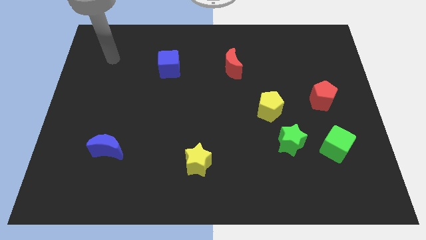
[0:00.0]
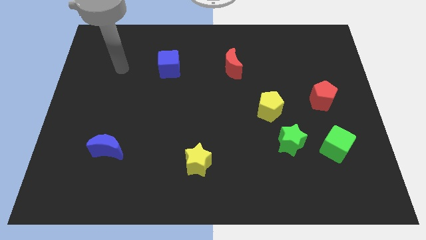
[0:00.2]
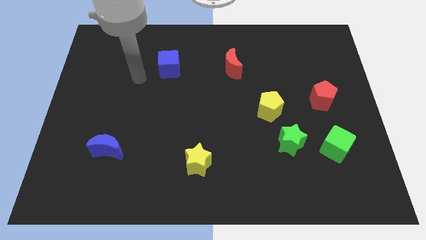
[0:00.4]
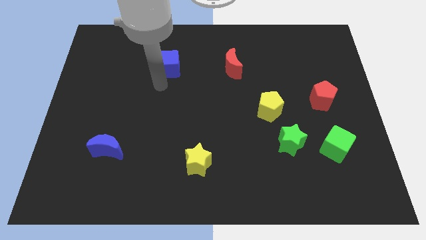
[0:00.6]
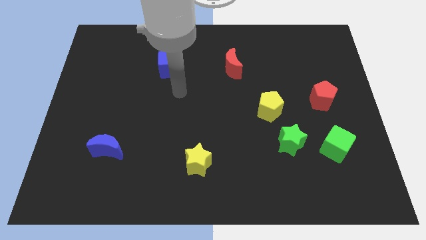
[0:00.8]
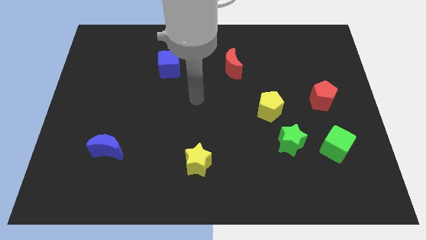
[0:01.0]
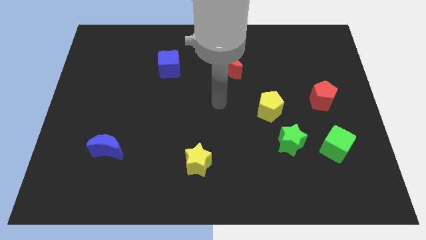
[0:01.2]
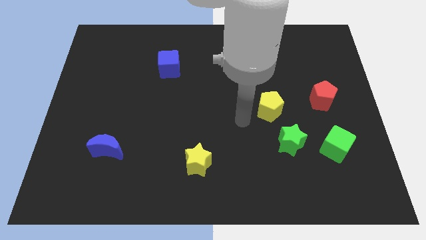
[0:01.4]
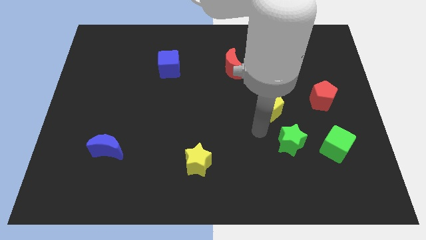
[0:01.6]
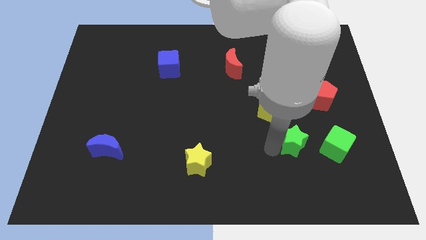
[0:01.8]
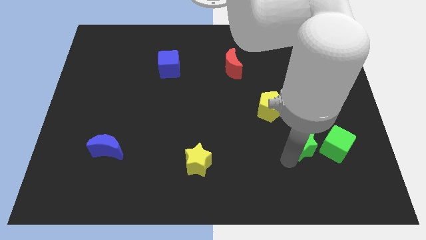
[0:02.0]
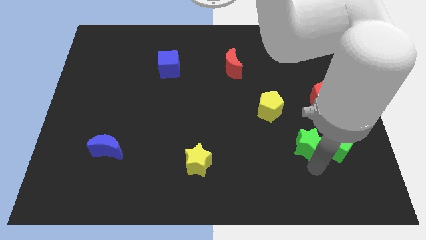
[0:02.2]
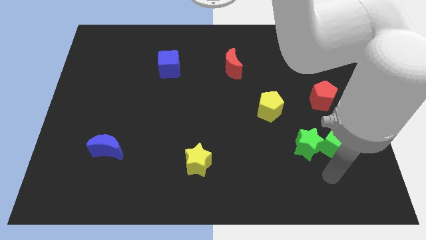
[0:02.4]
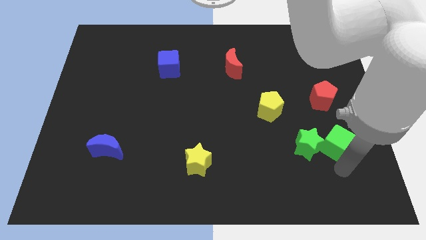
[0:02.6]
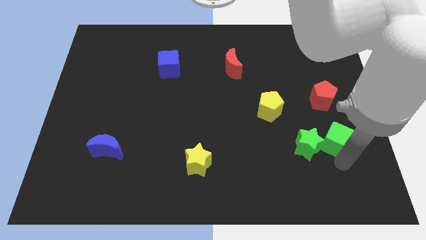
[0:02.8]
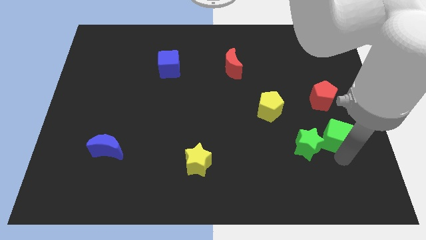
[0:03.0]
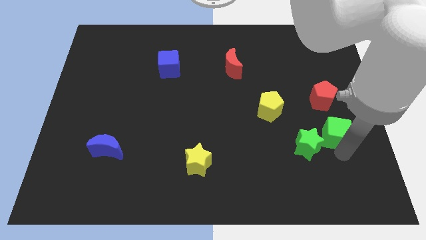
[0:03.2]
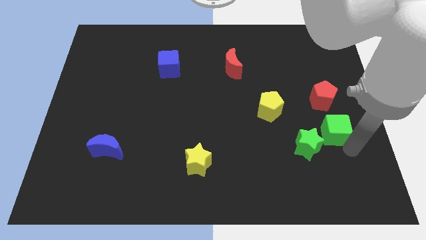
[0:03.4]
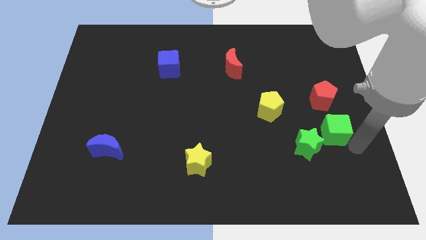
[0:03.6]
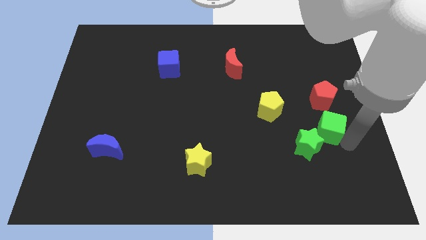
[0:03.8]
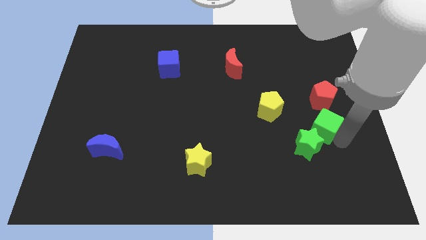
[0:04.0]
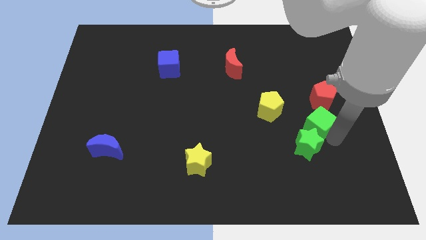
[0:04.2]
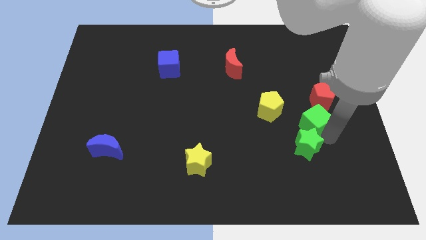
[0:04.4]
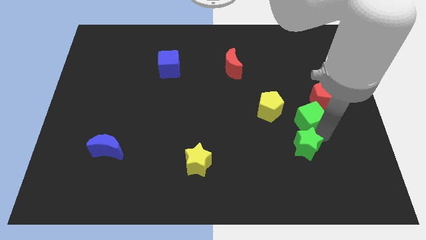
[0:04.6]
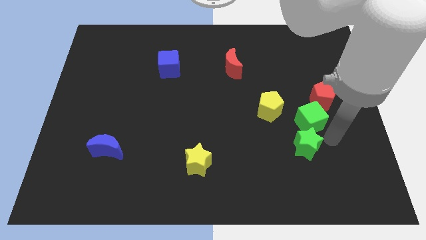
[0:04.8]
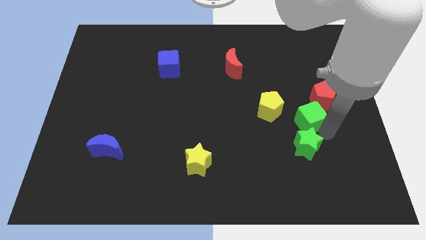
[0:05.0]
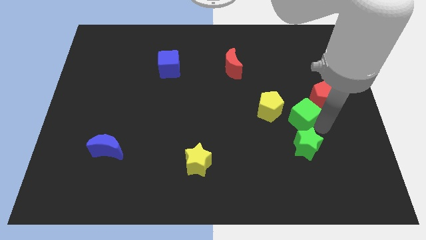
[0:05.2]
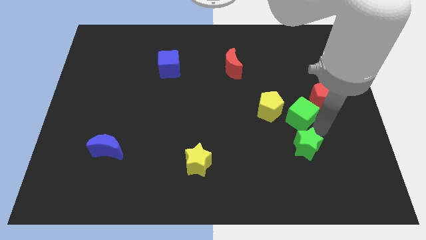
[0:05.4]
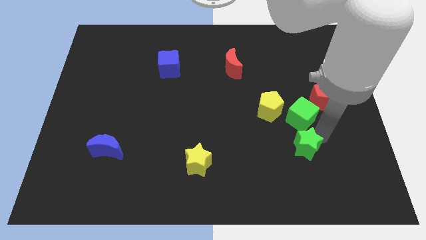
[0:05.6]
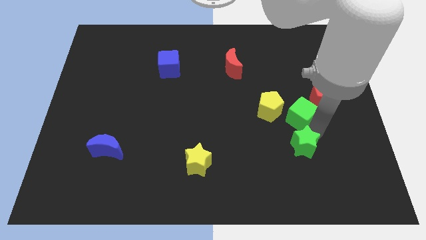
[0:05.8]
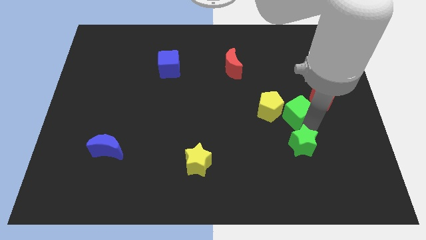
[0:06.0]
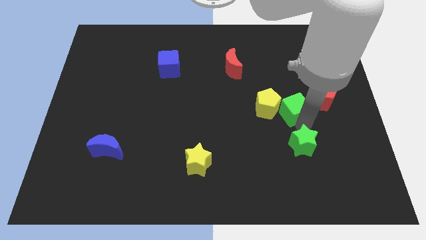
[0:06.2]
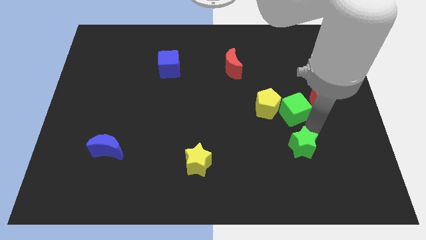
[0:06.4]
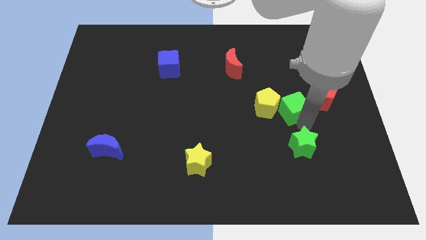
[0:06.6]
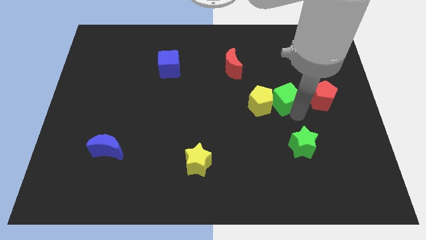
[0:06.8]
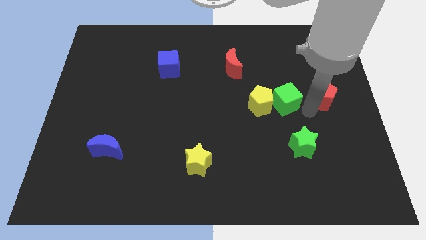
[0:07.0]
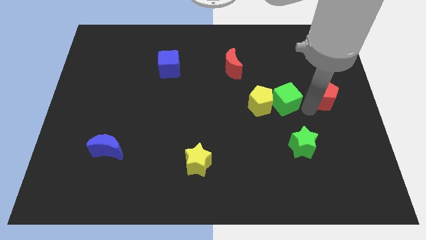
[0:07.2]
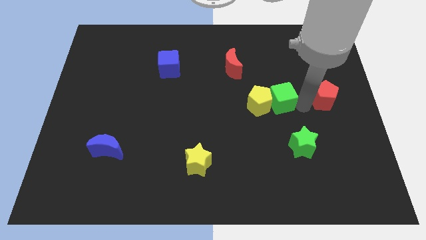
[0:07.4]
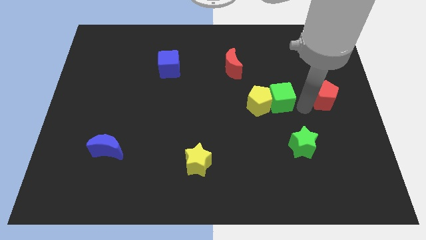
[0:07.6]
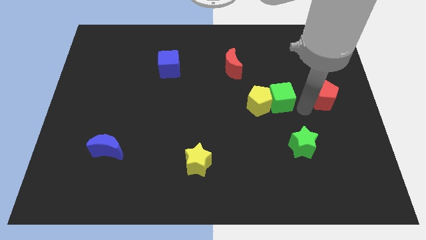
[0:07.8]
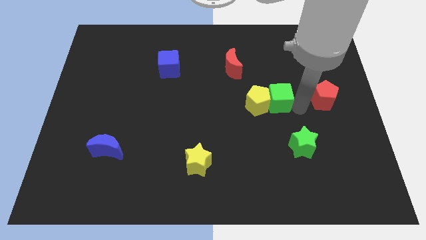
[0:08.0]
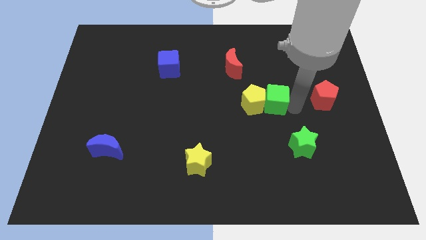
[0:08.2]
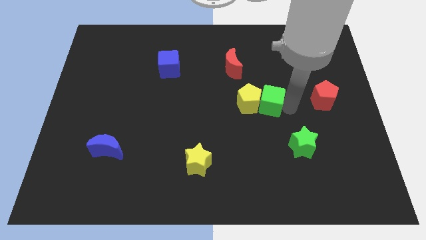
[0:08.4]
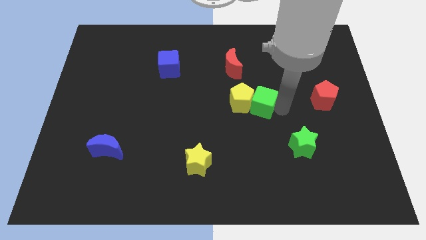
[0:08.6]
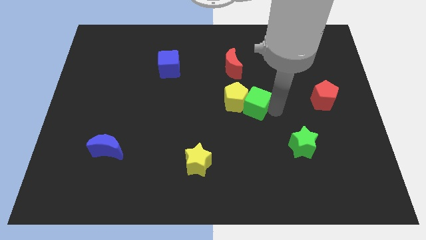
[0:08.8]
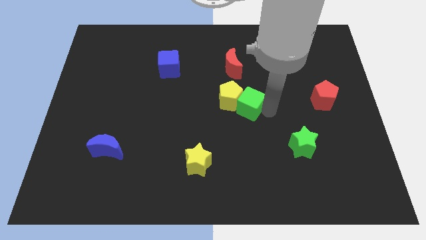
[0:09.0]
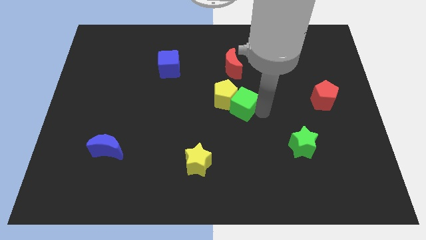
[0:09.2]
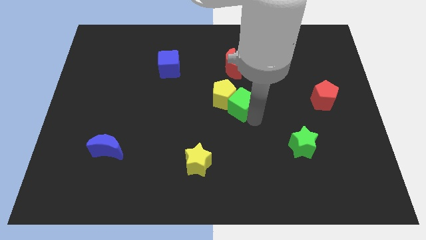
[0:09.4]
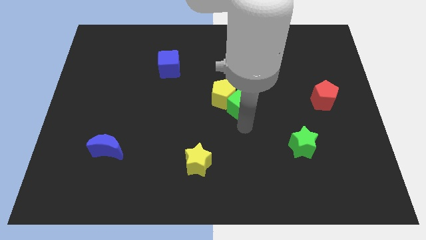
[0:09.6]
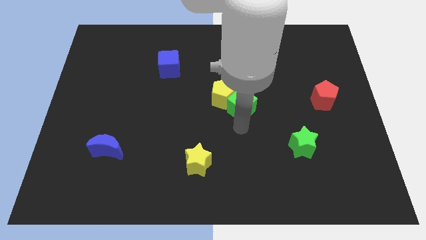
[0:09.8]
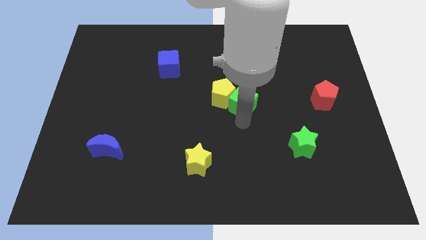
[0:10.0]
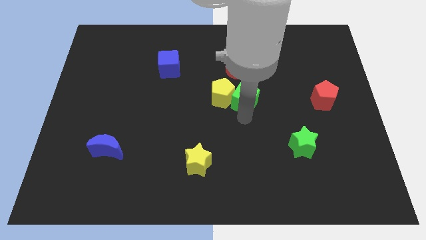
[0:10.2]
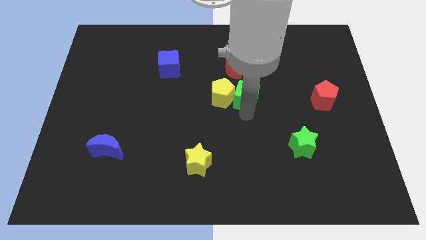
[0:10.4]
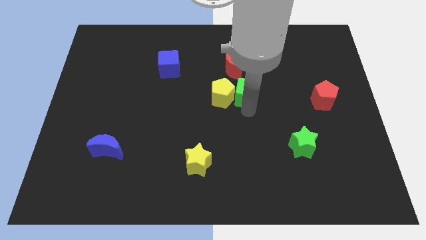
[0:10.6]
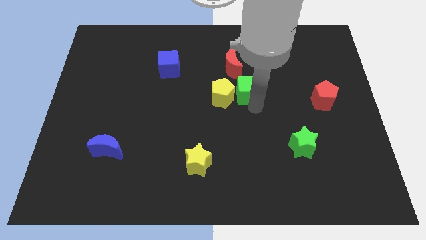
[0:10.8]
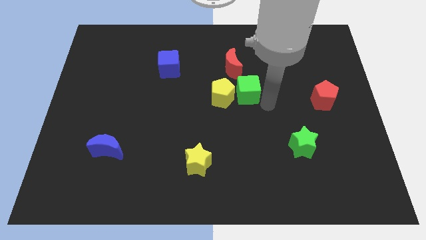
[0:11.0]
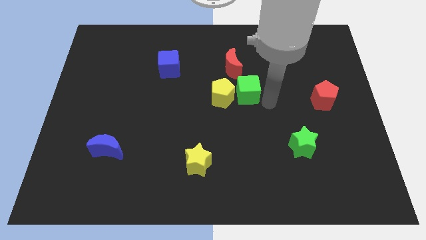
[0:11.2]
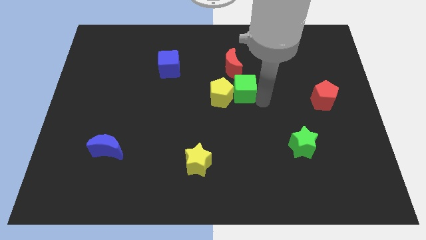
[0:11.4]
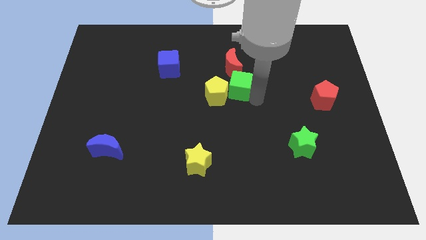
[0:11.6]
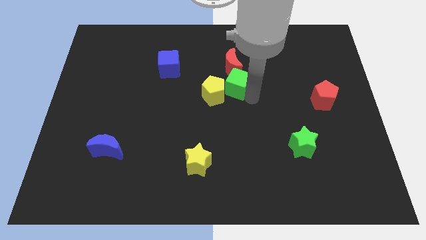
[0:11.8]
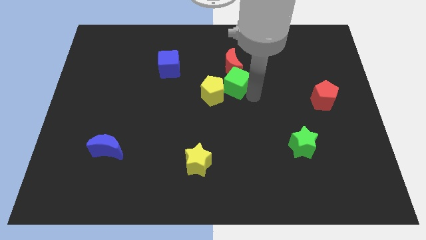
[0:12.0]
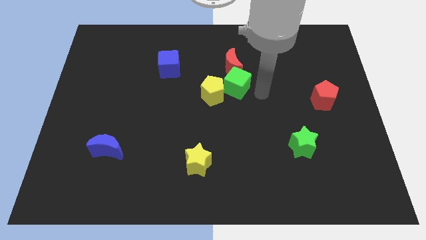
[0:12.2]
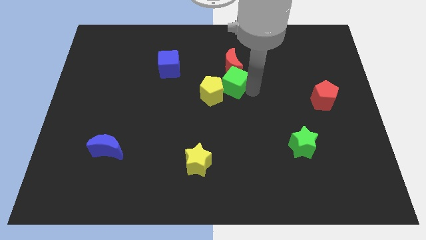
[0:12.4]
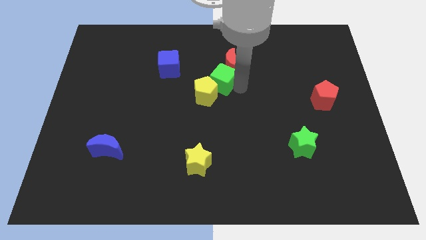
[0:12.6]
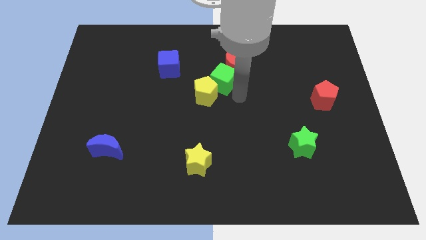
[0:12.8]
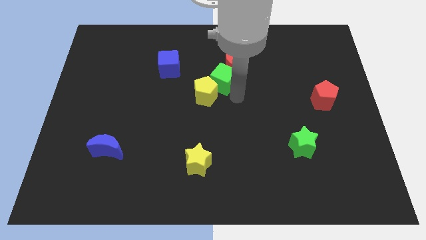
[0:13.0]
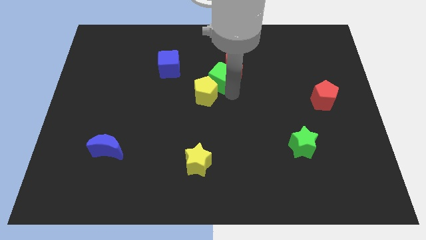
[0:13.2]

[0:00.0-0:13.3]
put the green cube right of the blue cube

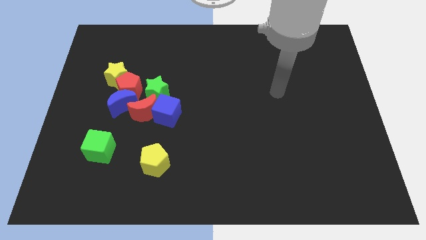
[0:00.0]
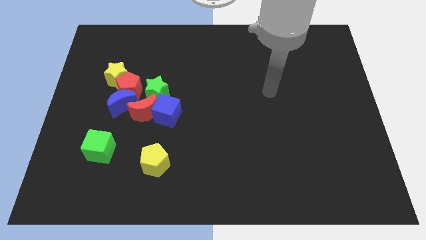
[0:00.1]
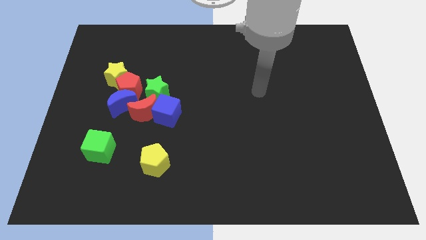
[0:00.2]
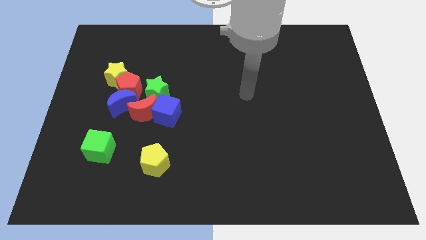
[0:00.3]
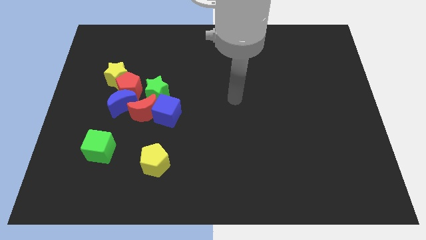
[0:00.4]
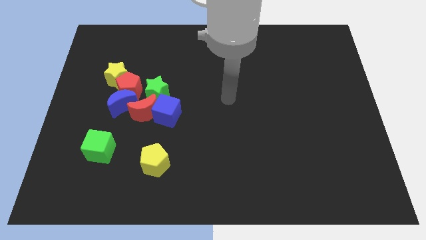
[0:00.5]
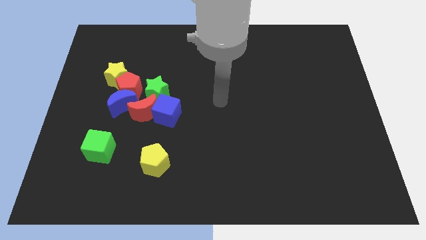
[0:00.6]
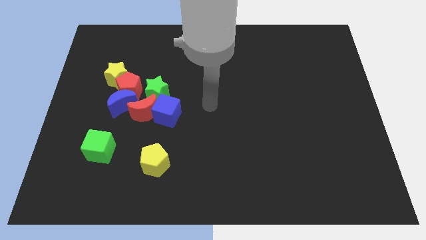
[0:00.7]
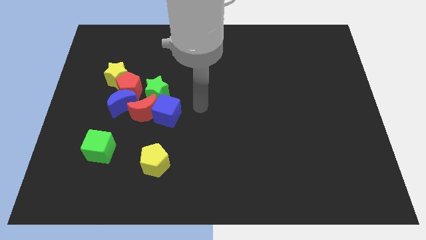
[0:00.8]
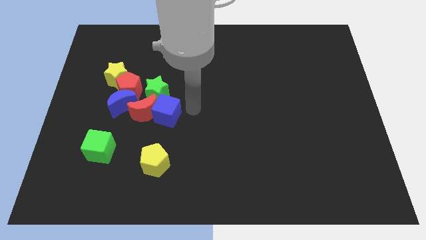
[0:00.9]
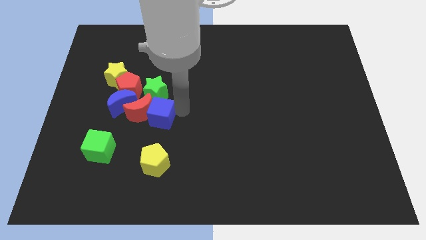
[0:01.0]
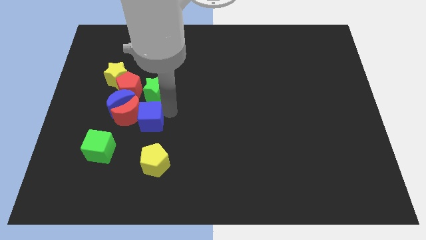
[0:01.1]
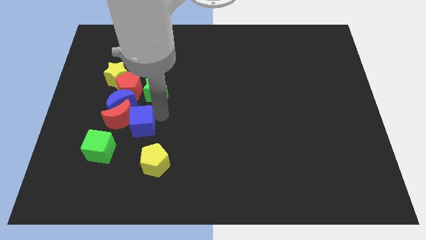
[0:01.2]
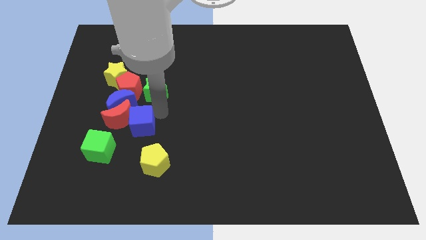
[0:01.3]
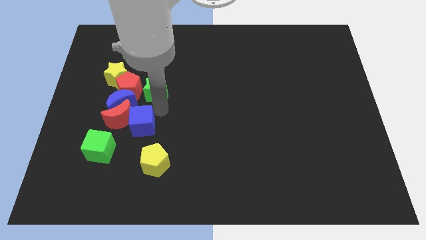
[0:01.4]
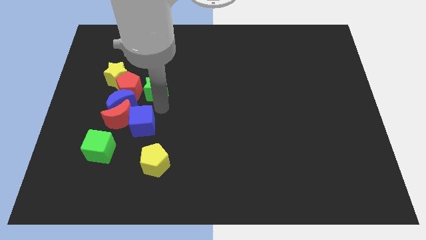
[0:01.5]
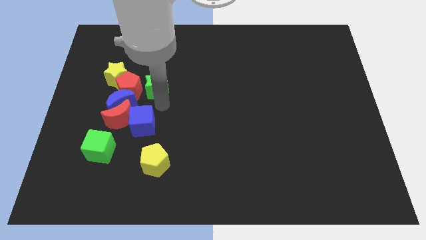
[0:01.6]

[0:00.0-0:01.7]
put the green star to the top right side of the red pentagon
